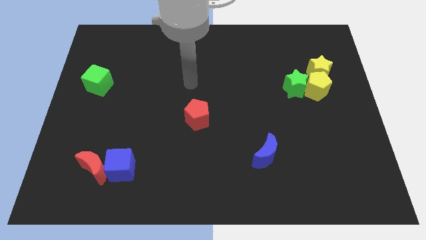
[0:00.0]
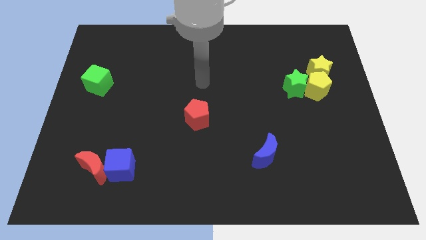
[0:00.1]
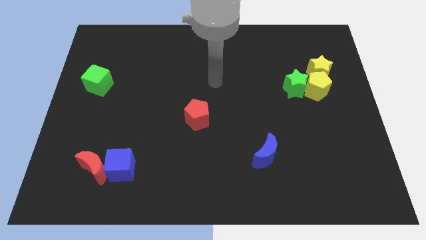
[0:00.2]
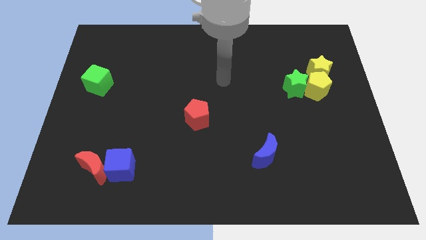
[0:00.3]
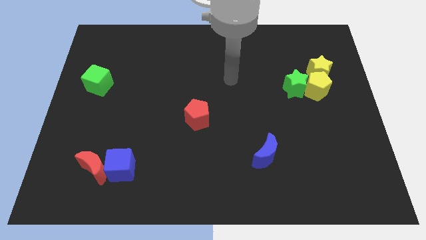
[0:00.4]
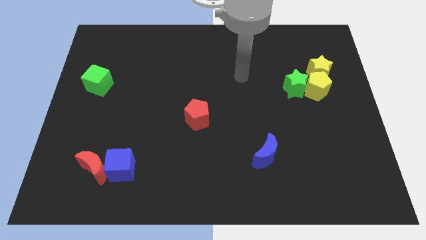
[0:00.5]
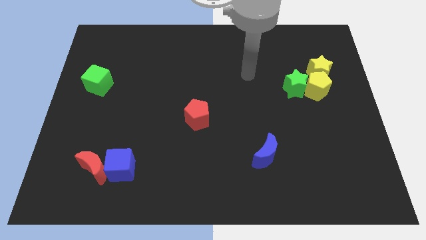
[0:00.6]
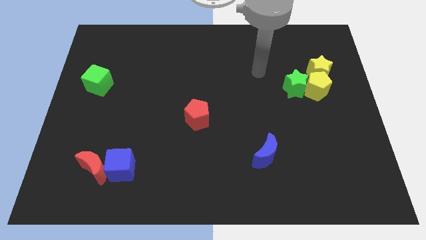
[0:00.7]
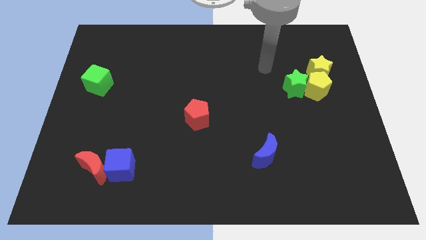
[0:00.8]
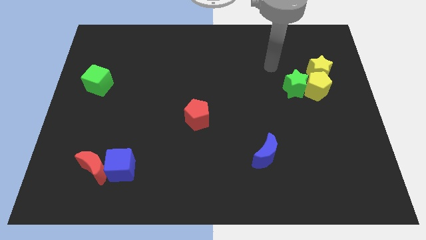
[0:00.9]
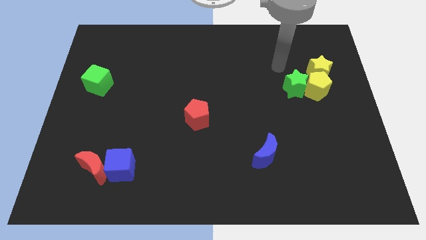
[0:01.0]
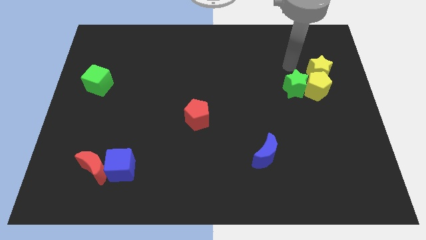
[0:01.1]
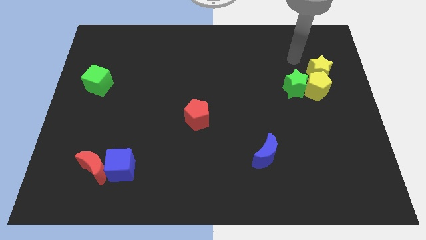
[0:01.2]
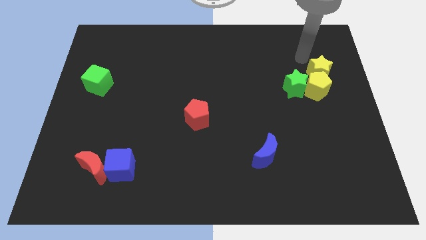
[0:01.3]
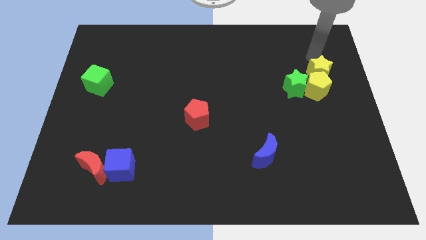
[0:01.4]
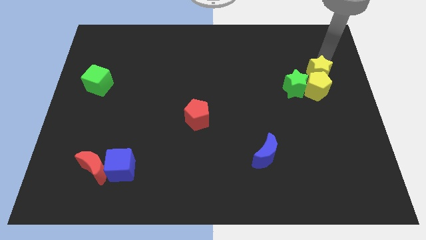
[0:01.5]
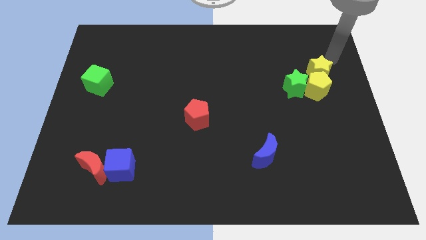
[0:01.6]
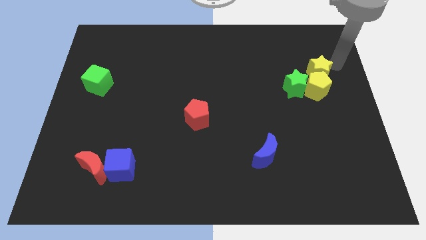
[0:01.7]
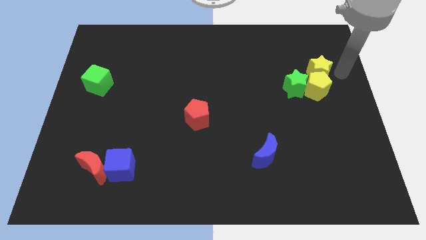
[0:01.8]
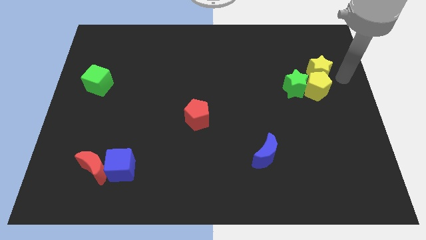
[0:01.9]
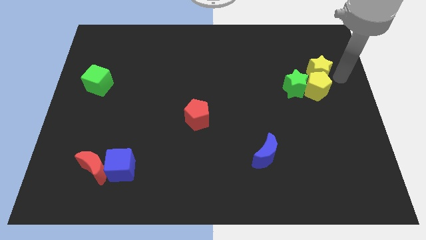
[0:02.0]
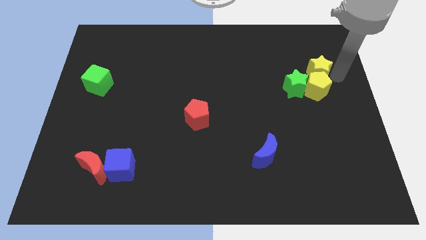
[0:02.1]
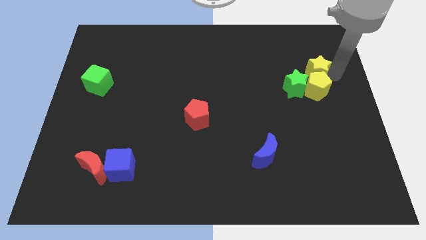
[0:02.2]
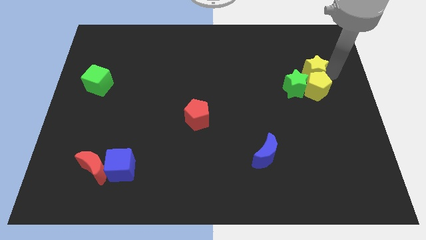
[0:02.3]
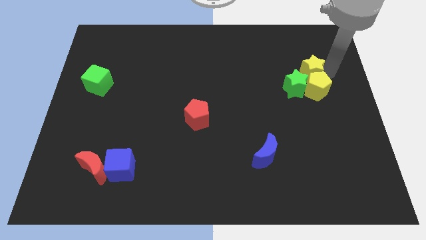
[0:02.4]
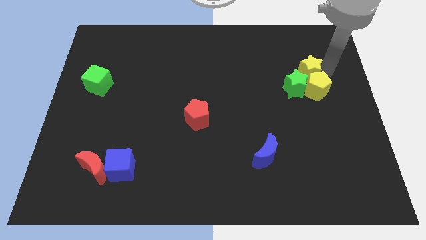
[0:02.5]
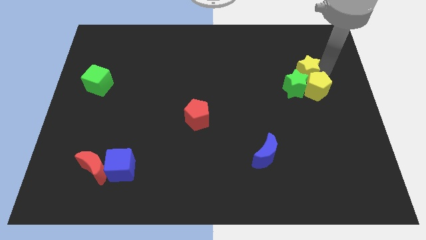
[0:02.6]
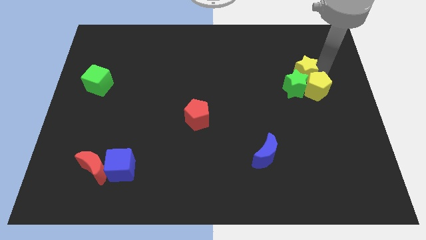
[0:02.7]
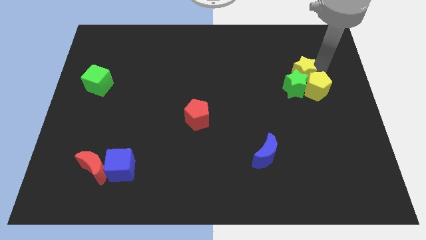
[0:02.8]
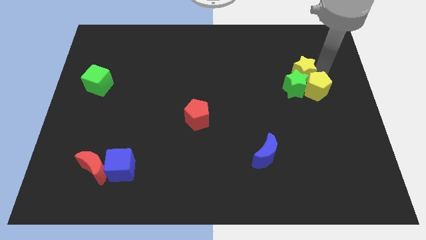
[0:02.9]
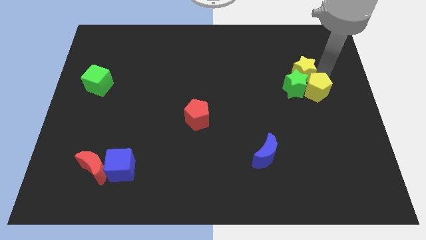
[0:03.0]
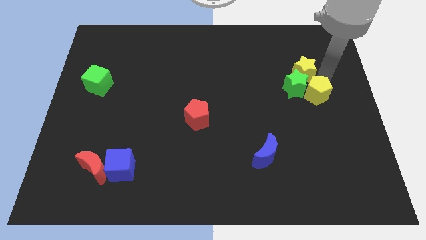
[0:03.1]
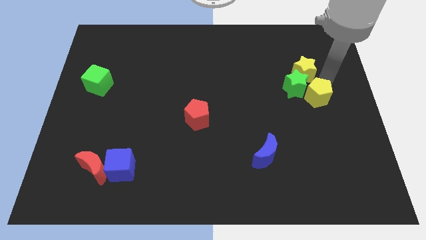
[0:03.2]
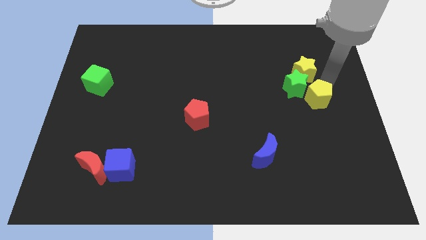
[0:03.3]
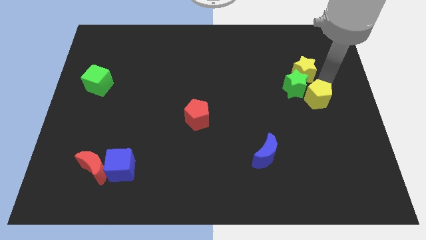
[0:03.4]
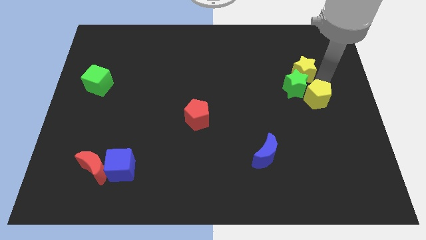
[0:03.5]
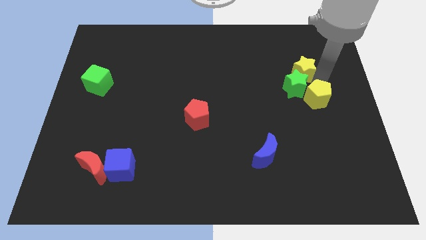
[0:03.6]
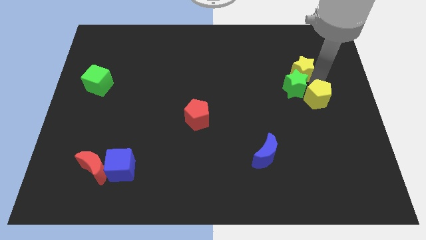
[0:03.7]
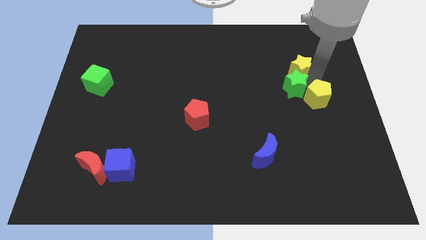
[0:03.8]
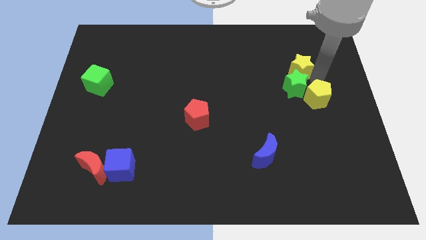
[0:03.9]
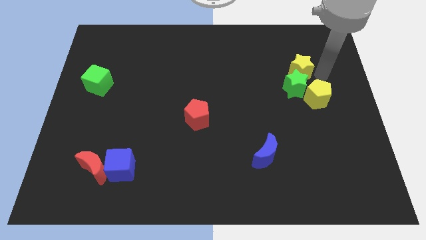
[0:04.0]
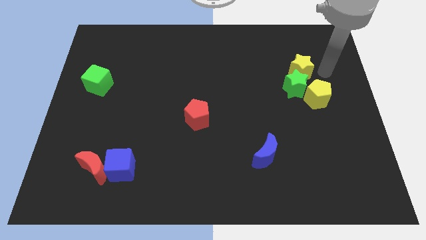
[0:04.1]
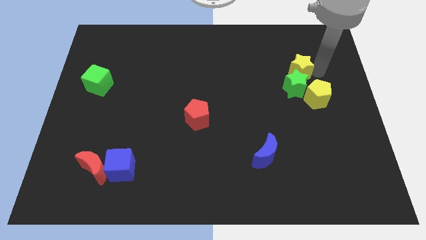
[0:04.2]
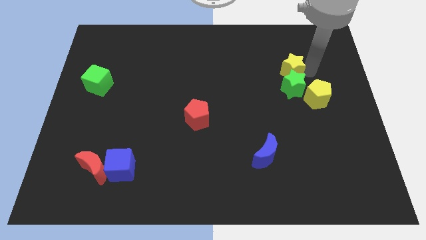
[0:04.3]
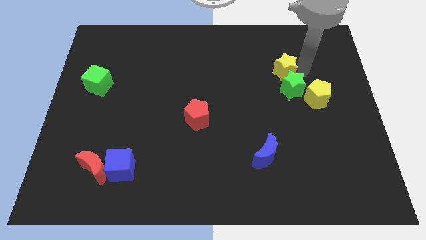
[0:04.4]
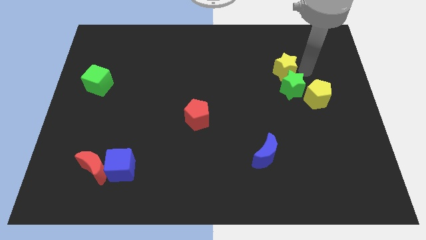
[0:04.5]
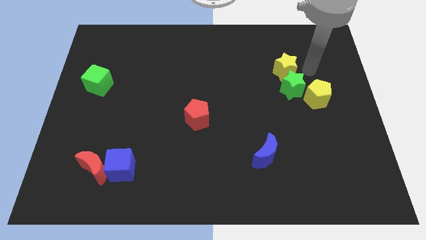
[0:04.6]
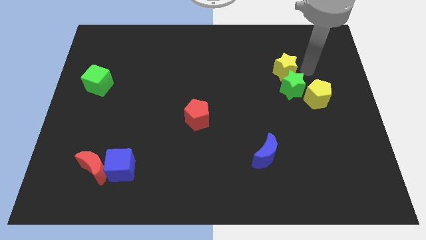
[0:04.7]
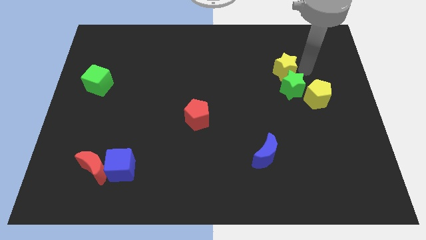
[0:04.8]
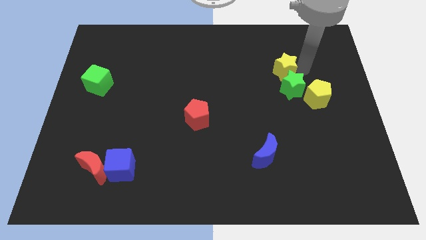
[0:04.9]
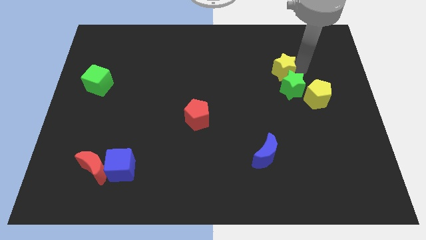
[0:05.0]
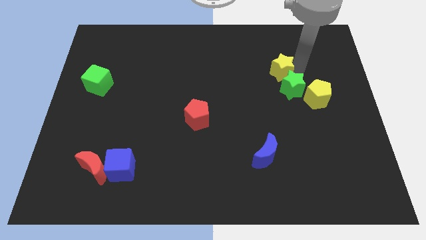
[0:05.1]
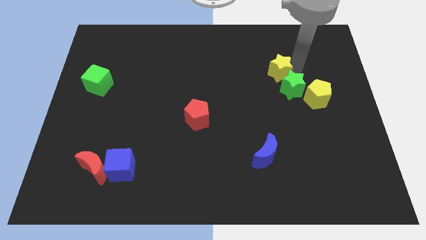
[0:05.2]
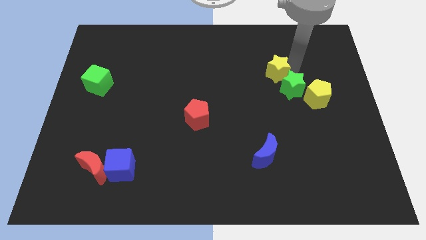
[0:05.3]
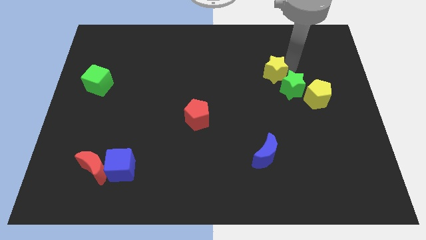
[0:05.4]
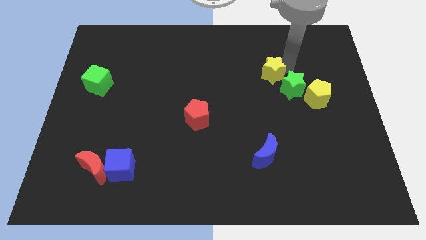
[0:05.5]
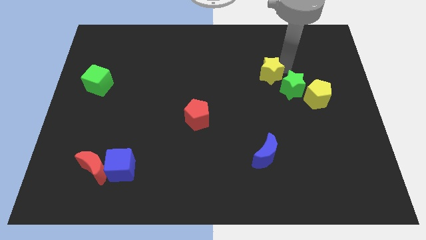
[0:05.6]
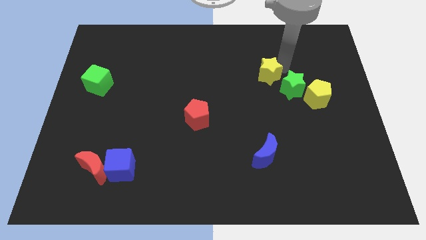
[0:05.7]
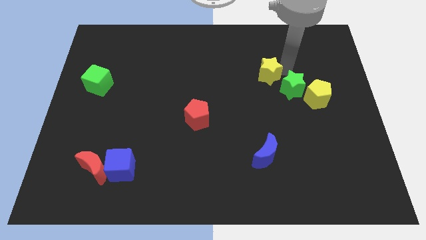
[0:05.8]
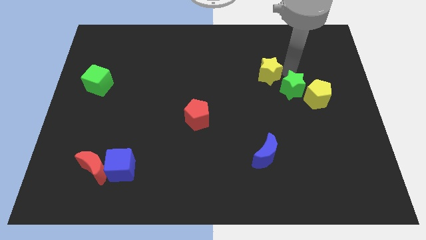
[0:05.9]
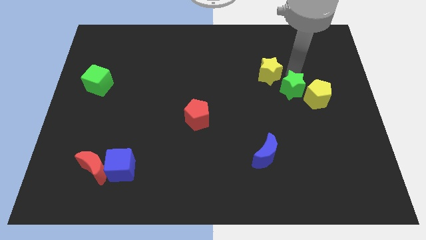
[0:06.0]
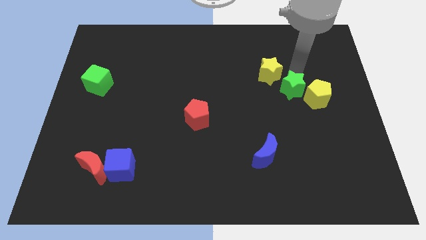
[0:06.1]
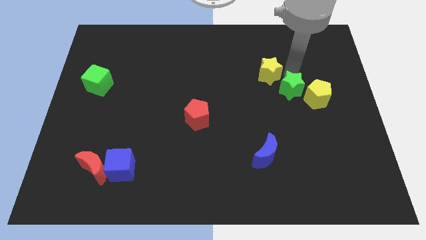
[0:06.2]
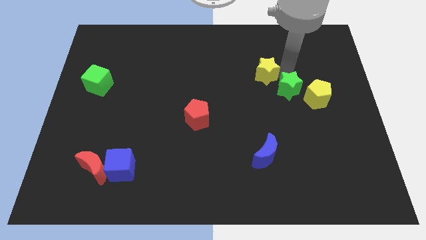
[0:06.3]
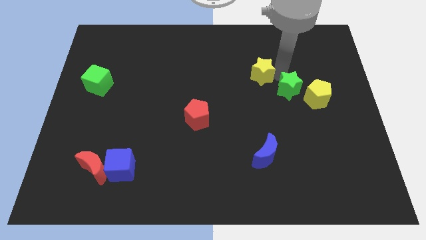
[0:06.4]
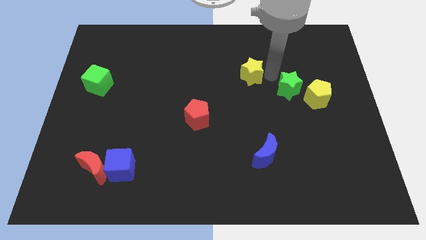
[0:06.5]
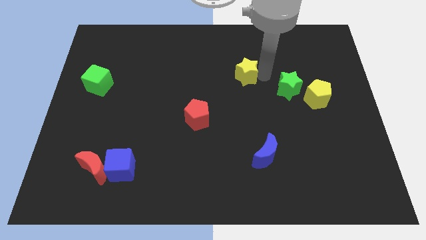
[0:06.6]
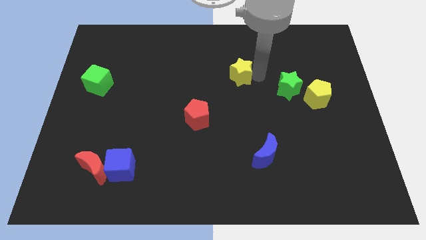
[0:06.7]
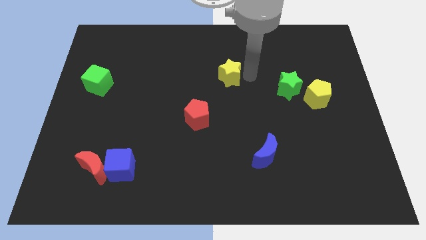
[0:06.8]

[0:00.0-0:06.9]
slide the yellow star left

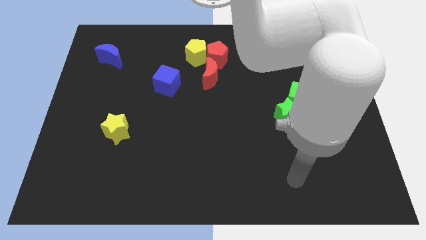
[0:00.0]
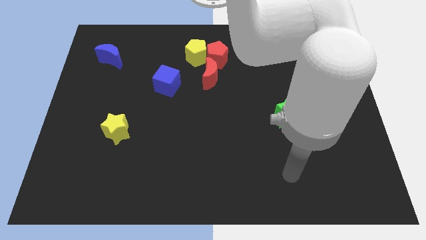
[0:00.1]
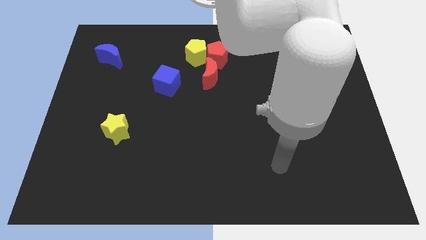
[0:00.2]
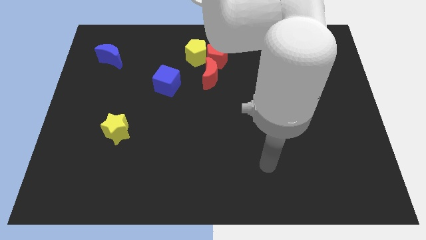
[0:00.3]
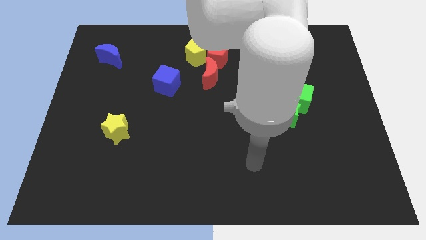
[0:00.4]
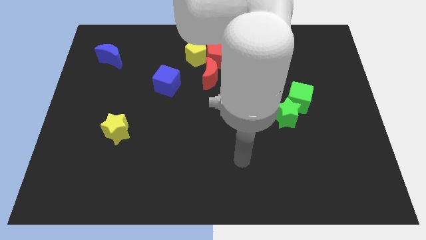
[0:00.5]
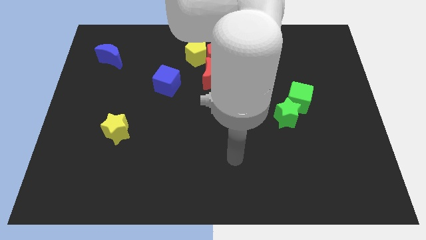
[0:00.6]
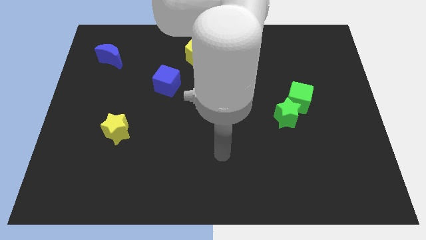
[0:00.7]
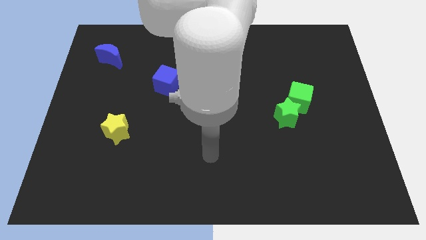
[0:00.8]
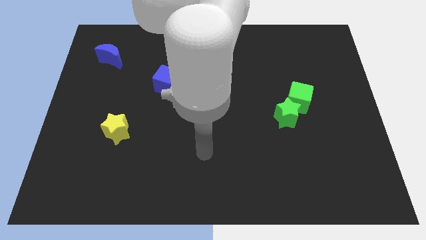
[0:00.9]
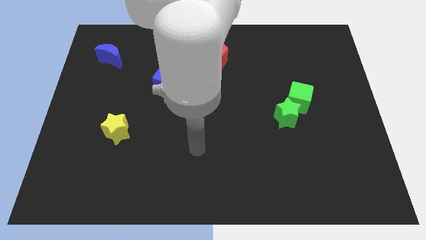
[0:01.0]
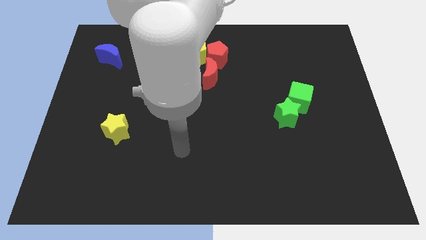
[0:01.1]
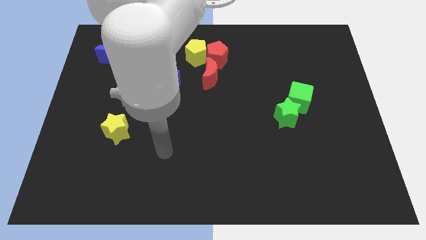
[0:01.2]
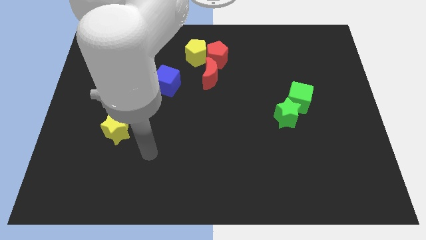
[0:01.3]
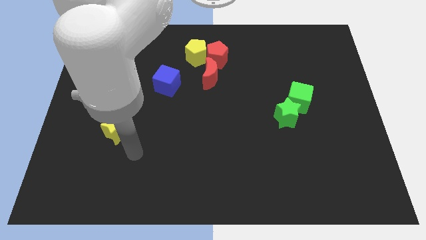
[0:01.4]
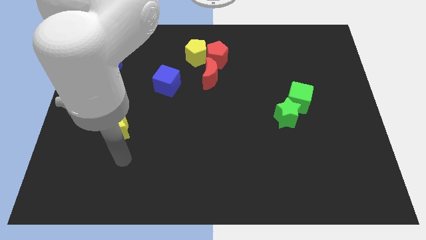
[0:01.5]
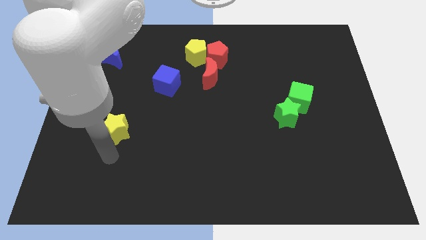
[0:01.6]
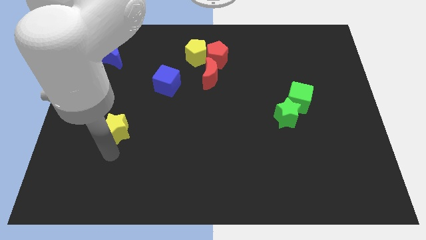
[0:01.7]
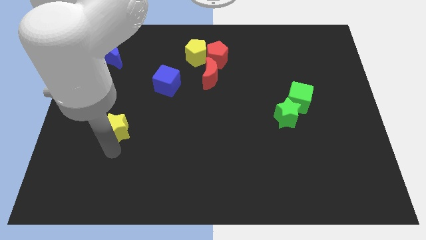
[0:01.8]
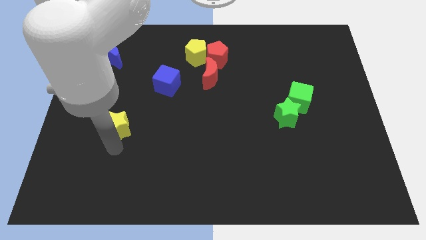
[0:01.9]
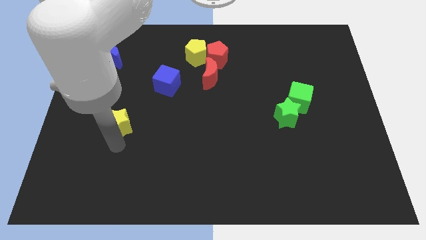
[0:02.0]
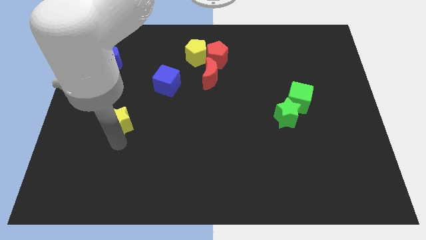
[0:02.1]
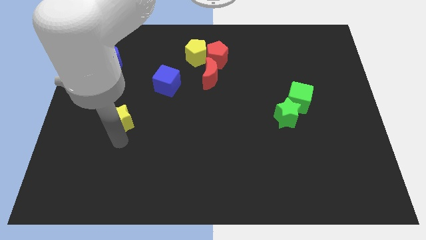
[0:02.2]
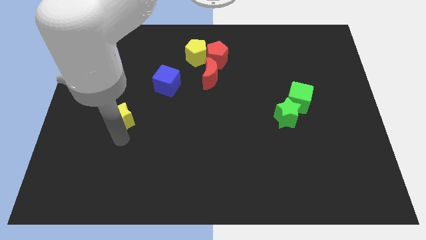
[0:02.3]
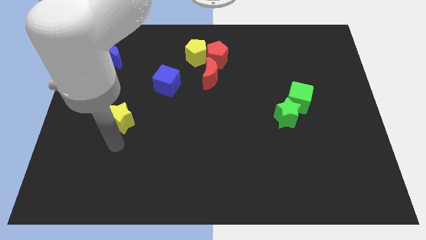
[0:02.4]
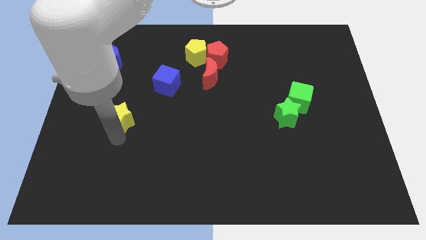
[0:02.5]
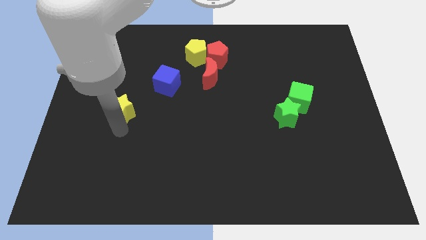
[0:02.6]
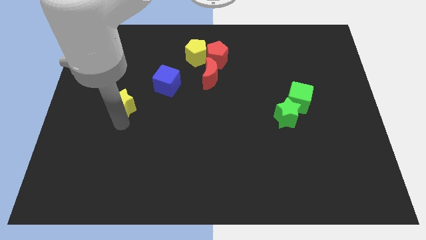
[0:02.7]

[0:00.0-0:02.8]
move the yellow star upwards slightly
